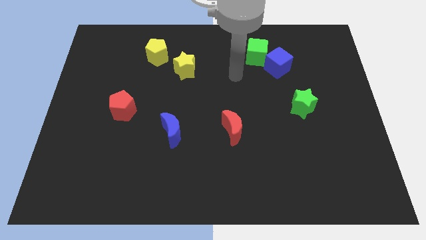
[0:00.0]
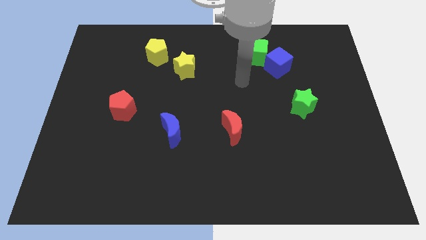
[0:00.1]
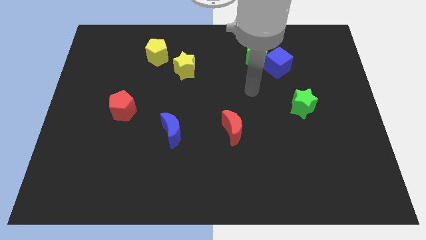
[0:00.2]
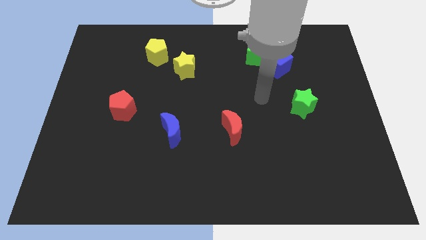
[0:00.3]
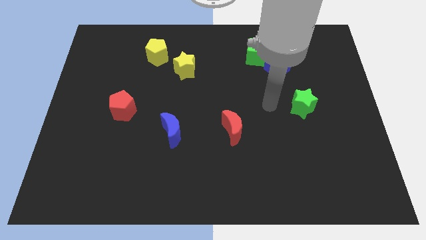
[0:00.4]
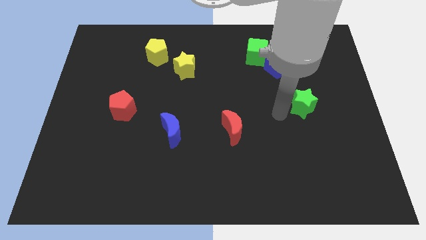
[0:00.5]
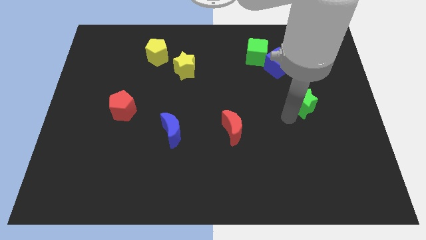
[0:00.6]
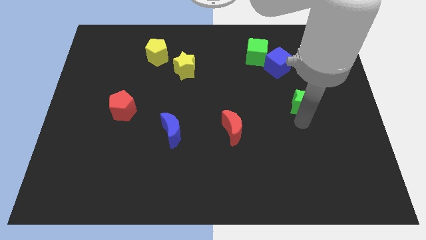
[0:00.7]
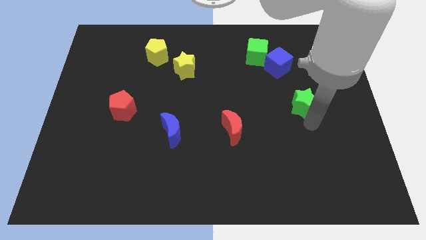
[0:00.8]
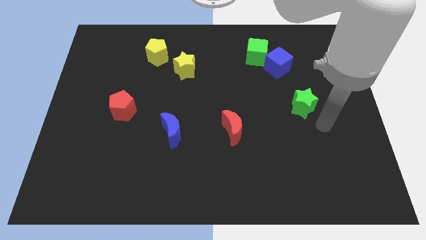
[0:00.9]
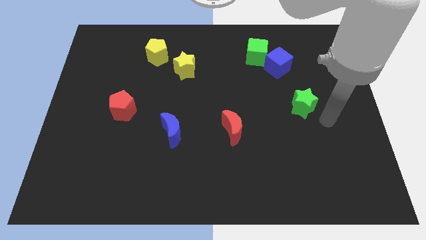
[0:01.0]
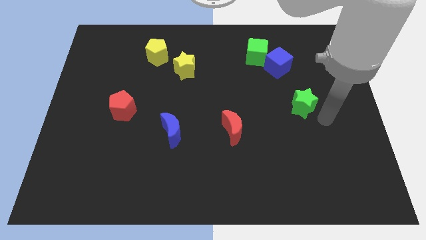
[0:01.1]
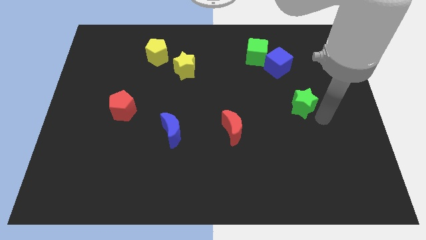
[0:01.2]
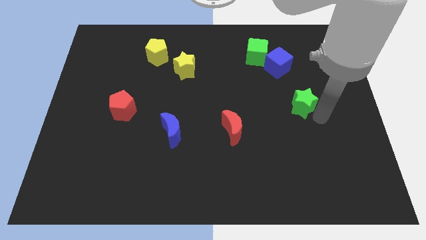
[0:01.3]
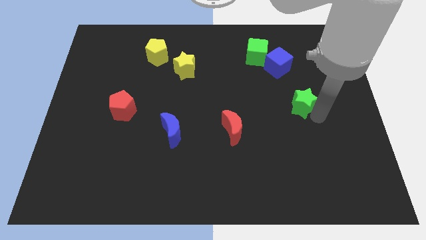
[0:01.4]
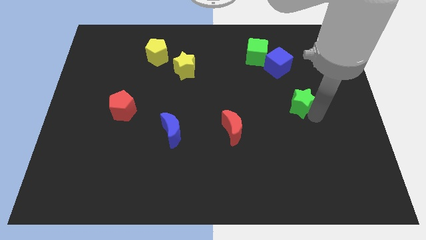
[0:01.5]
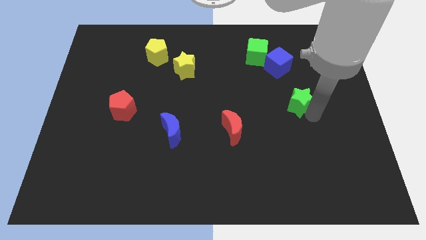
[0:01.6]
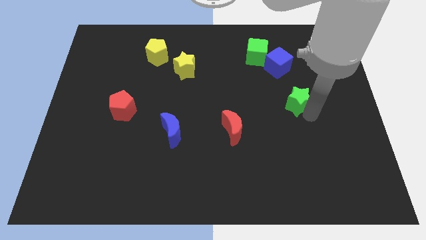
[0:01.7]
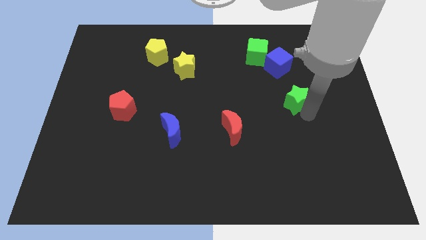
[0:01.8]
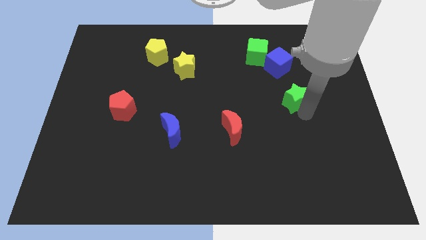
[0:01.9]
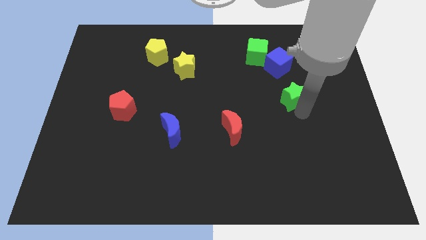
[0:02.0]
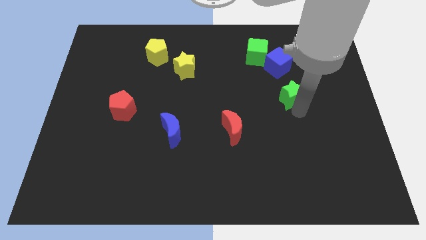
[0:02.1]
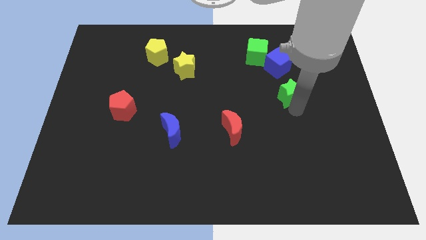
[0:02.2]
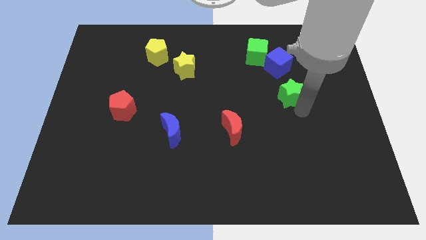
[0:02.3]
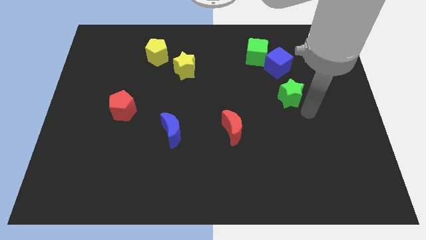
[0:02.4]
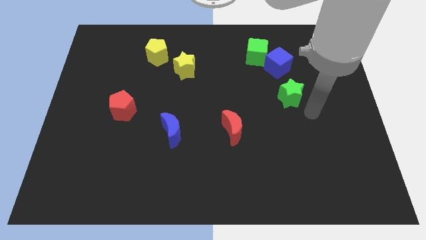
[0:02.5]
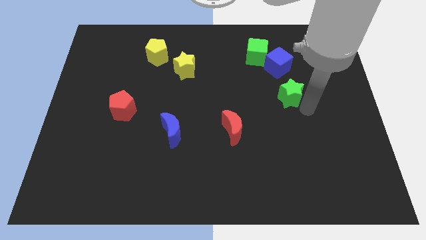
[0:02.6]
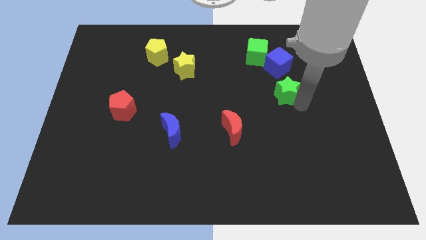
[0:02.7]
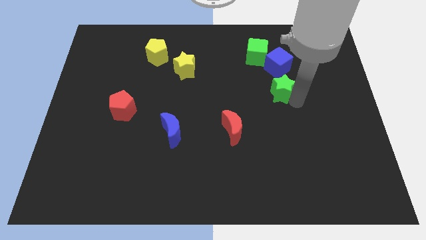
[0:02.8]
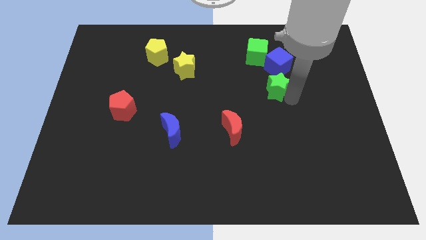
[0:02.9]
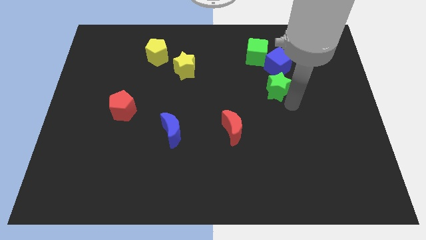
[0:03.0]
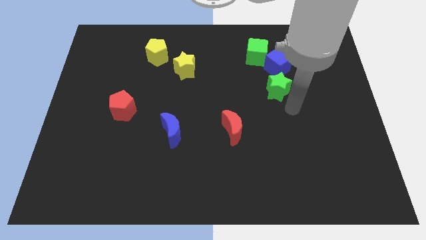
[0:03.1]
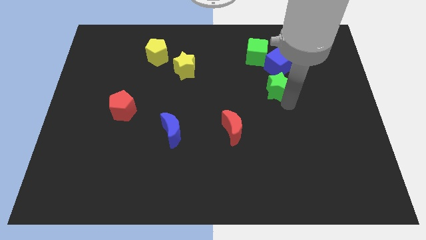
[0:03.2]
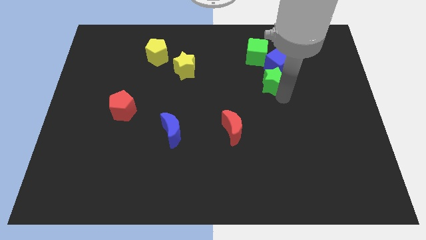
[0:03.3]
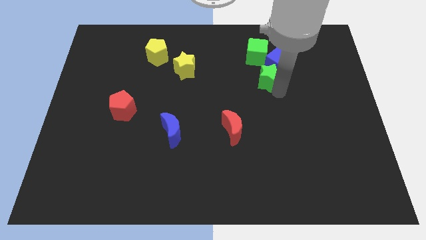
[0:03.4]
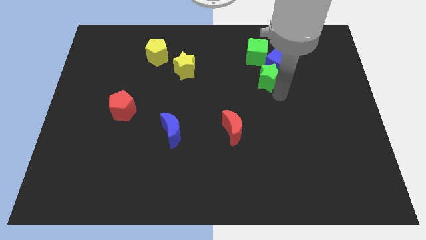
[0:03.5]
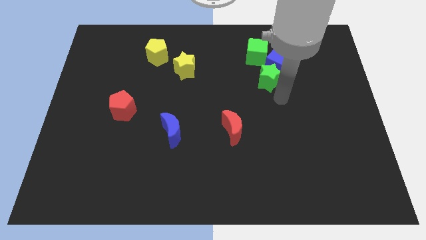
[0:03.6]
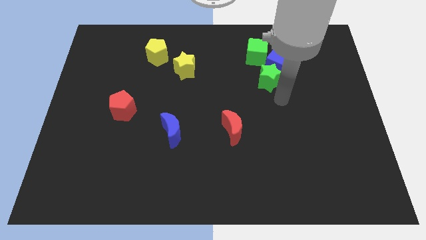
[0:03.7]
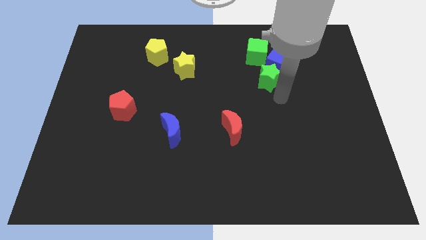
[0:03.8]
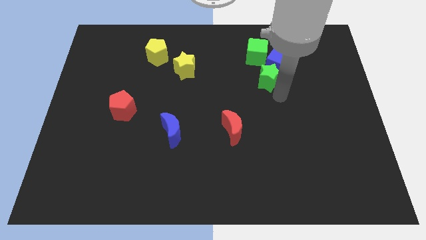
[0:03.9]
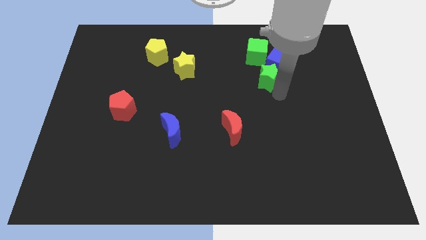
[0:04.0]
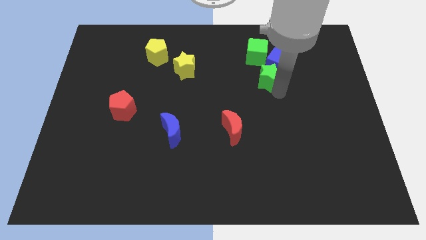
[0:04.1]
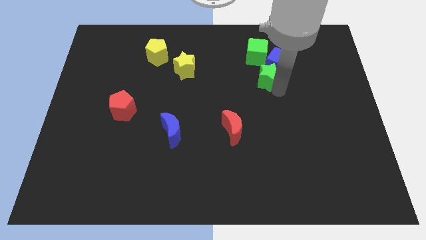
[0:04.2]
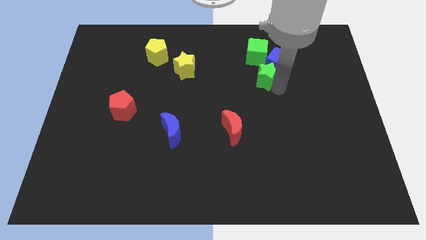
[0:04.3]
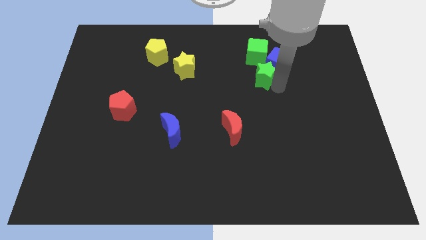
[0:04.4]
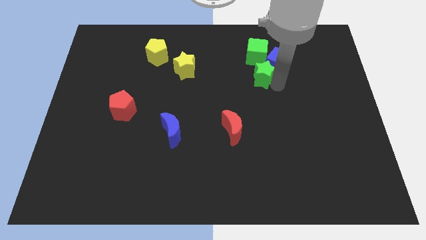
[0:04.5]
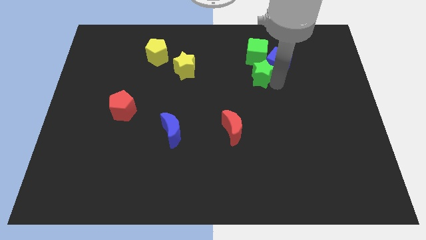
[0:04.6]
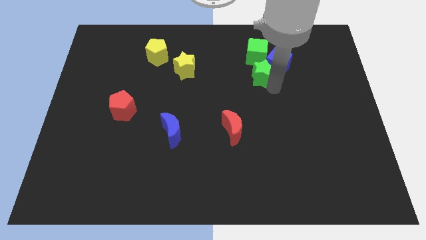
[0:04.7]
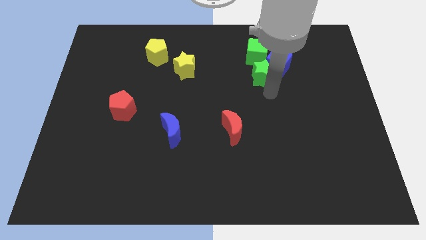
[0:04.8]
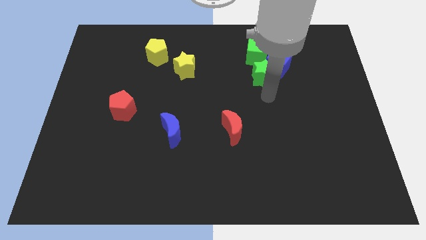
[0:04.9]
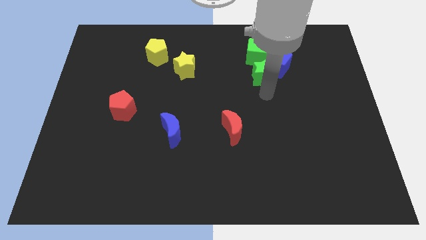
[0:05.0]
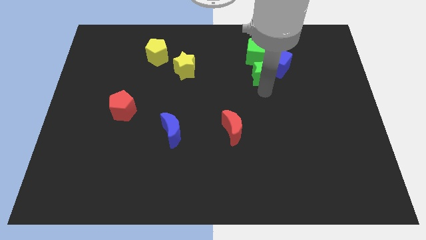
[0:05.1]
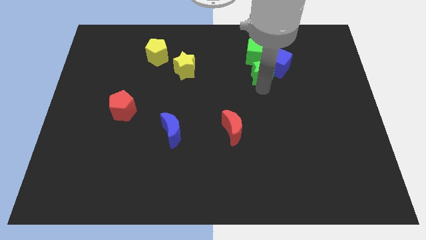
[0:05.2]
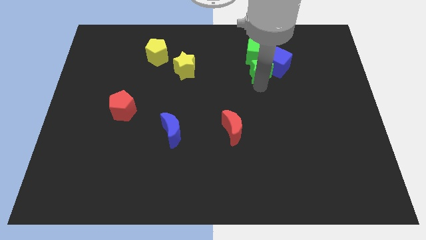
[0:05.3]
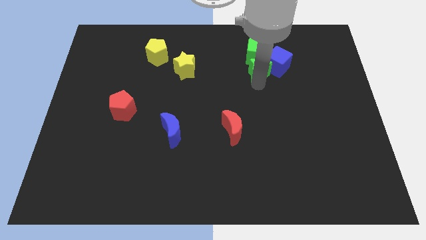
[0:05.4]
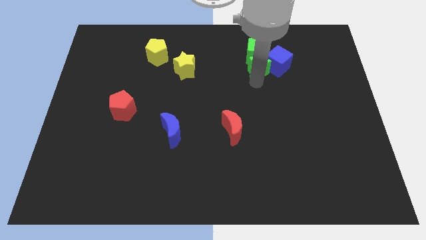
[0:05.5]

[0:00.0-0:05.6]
slide the green star towards the green cube

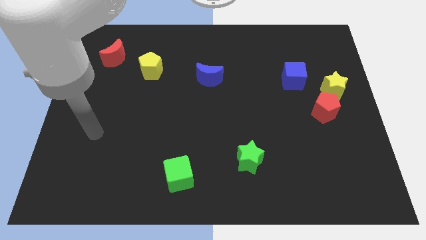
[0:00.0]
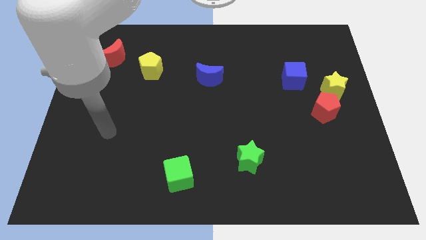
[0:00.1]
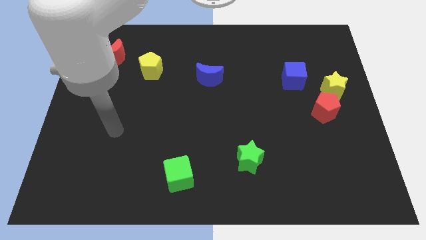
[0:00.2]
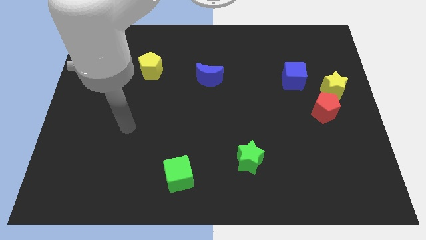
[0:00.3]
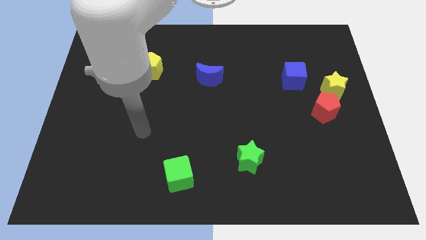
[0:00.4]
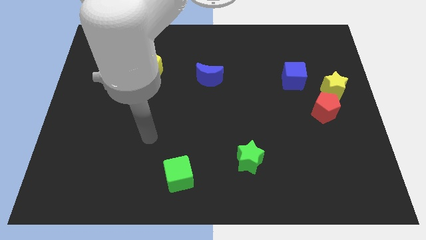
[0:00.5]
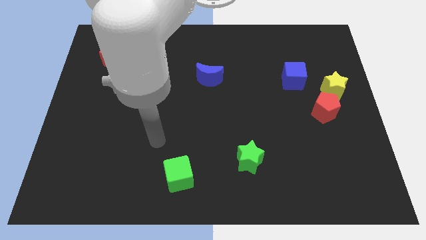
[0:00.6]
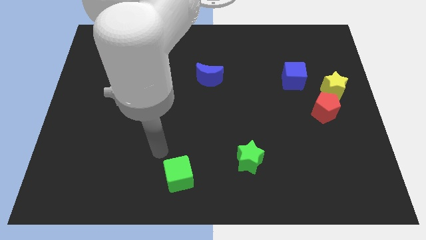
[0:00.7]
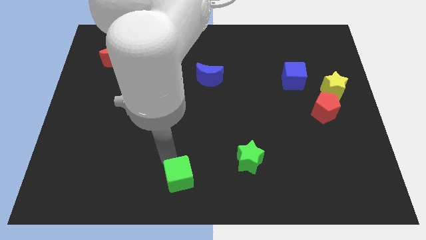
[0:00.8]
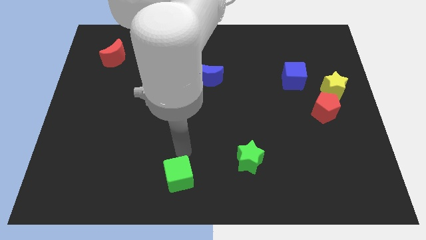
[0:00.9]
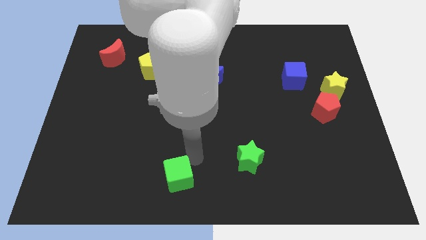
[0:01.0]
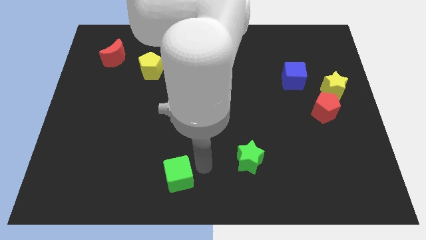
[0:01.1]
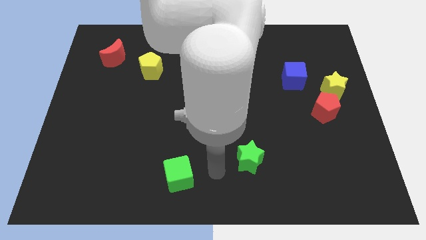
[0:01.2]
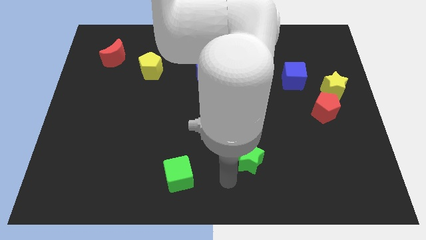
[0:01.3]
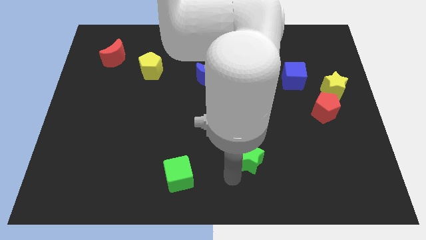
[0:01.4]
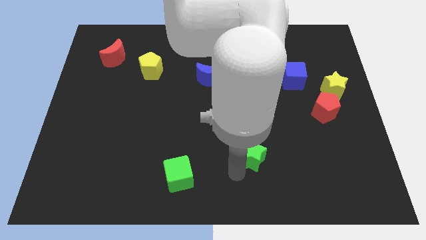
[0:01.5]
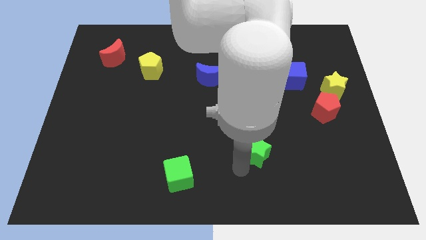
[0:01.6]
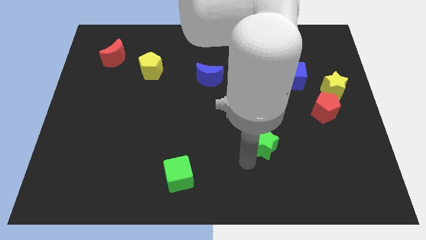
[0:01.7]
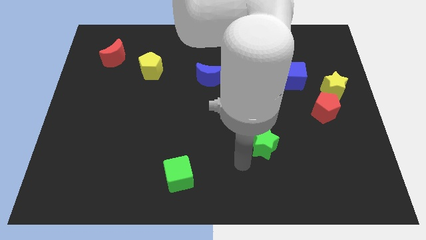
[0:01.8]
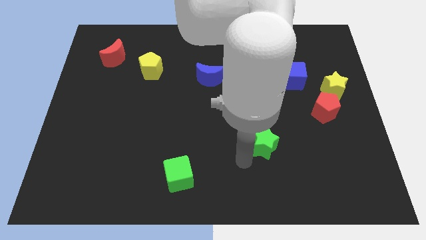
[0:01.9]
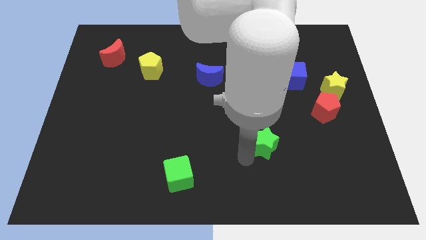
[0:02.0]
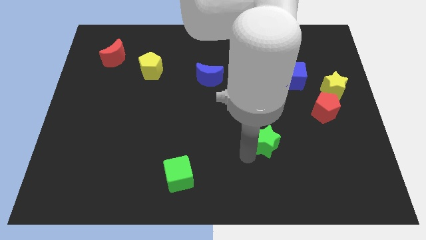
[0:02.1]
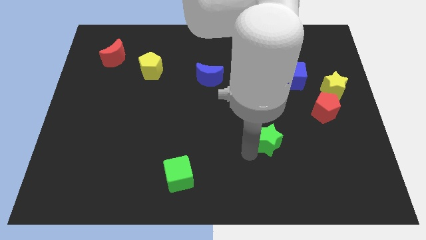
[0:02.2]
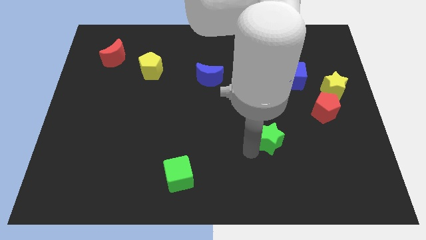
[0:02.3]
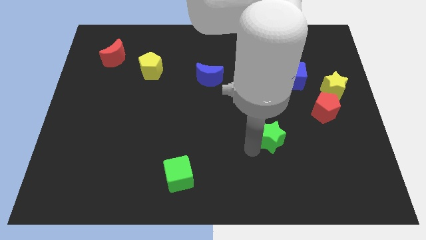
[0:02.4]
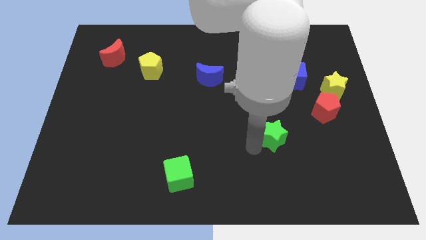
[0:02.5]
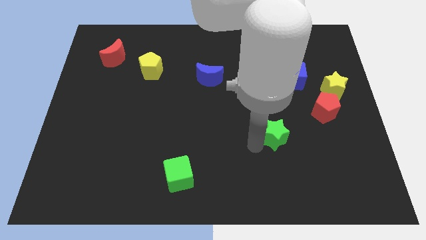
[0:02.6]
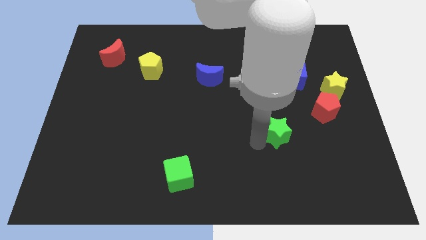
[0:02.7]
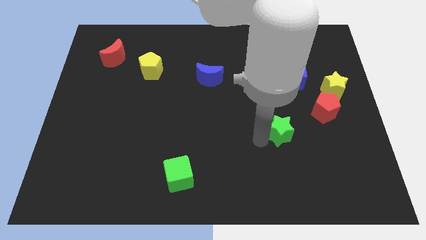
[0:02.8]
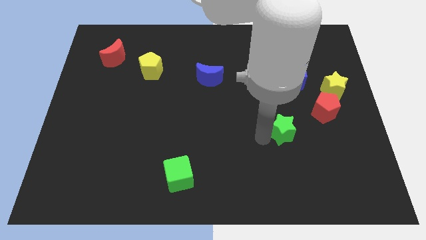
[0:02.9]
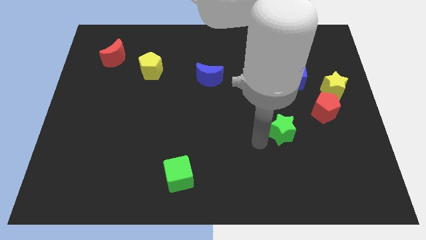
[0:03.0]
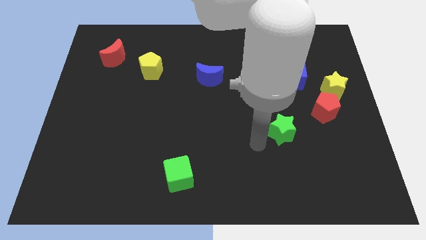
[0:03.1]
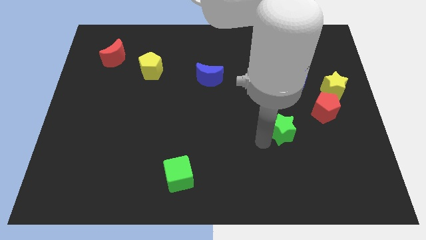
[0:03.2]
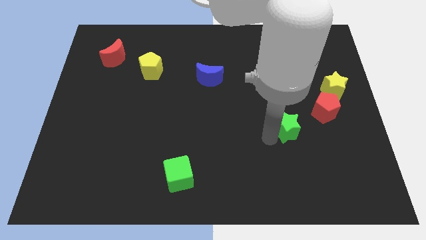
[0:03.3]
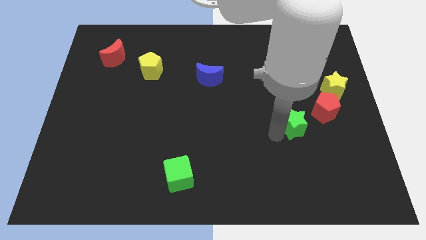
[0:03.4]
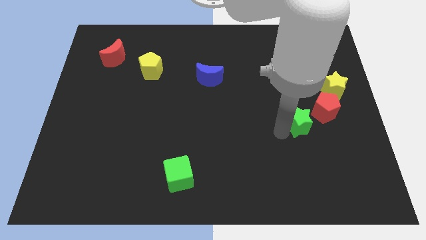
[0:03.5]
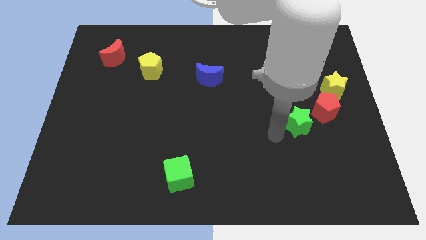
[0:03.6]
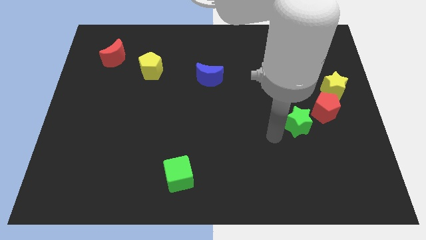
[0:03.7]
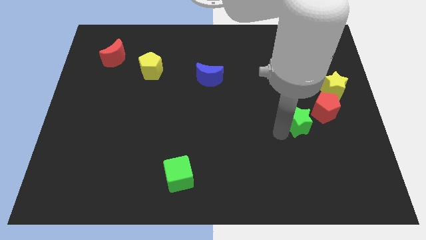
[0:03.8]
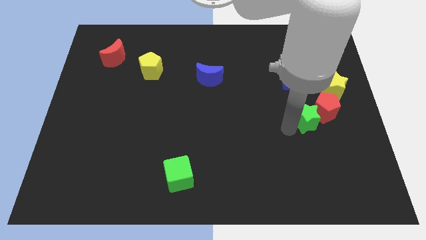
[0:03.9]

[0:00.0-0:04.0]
push the green star towards the red pentagon
